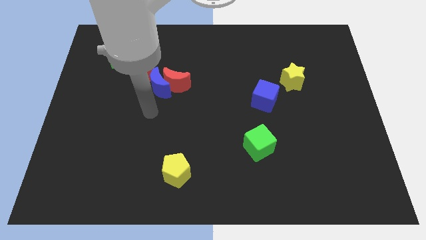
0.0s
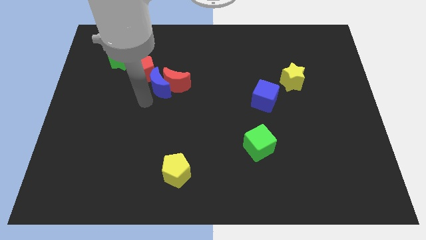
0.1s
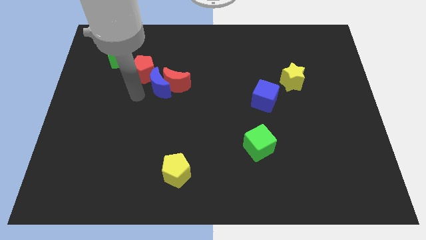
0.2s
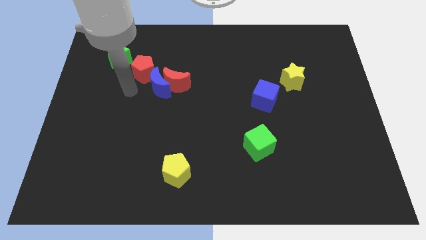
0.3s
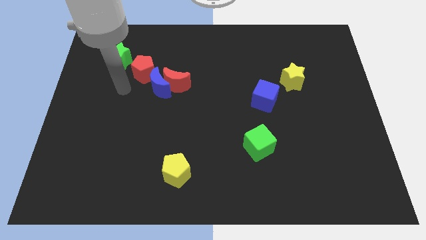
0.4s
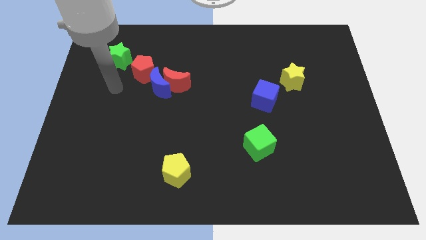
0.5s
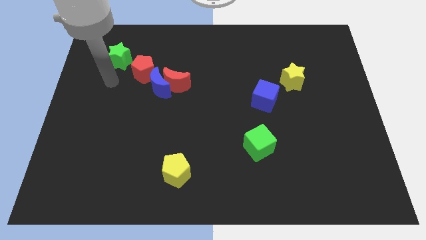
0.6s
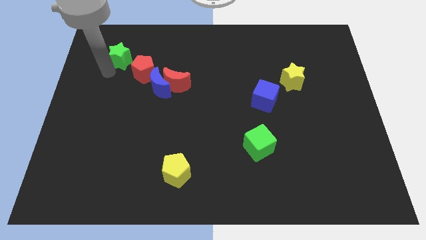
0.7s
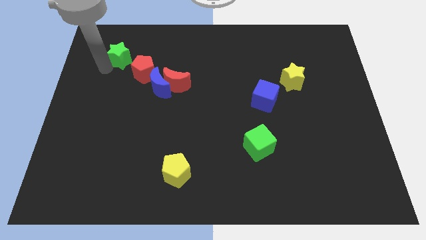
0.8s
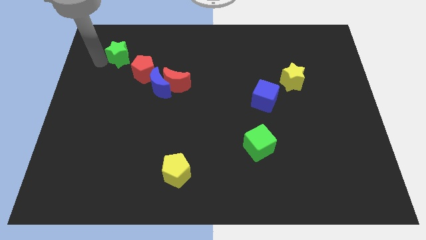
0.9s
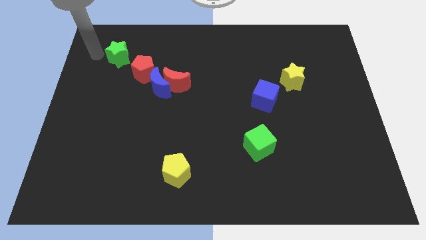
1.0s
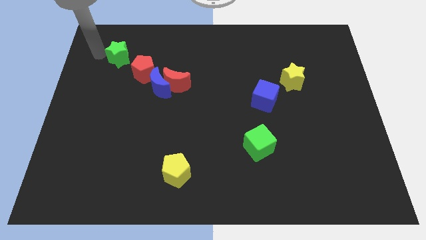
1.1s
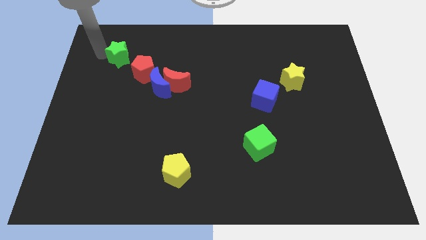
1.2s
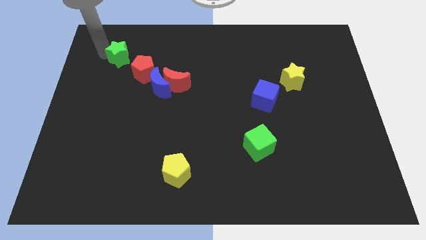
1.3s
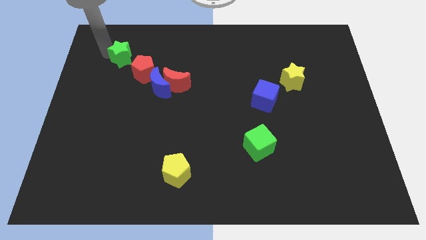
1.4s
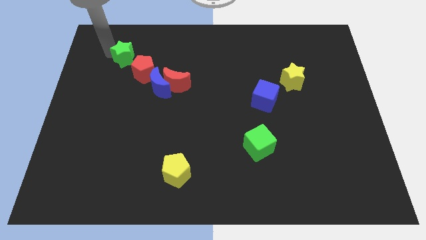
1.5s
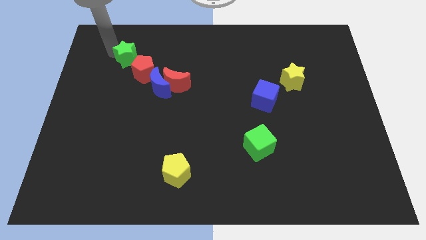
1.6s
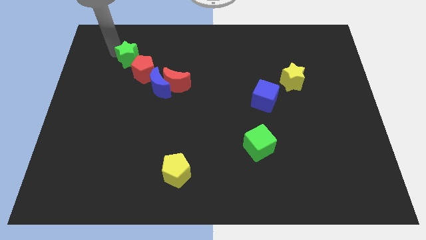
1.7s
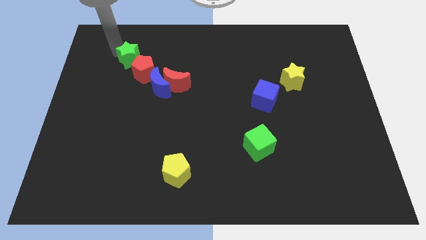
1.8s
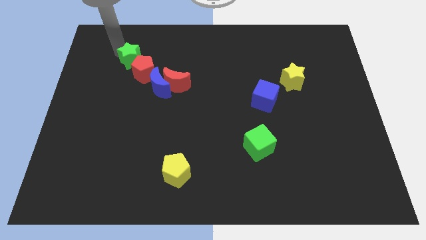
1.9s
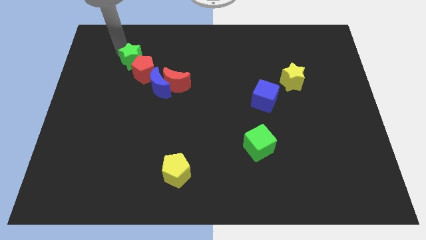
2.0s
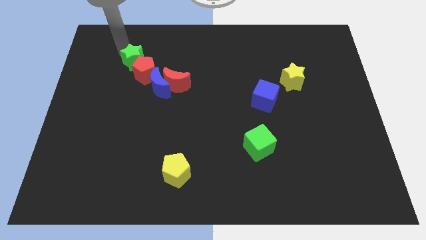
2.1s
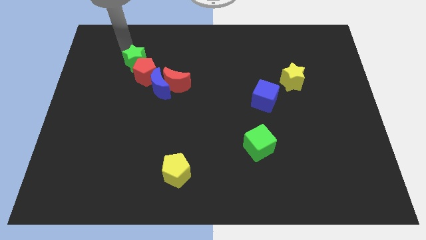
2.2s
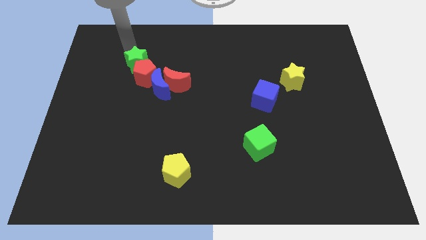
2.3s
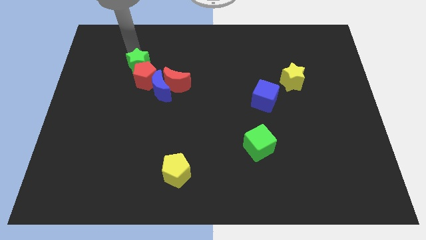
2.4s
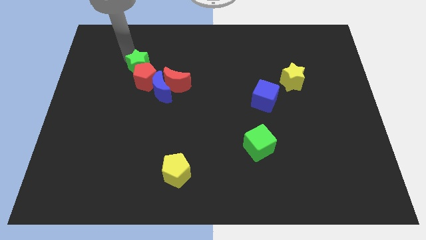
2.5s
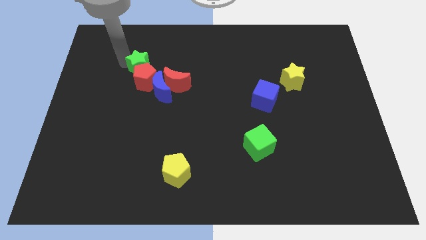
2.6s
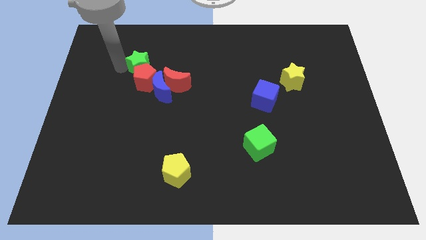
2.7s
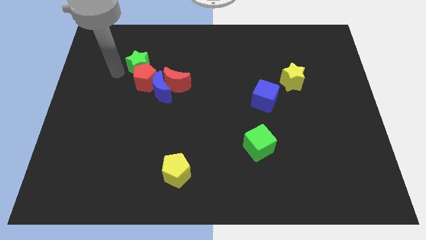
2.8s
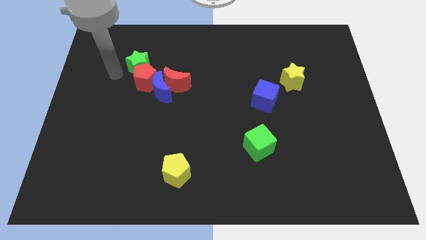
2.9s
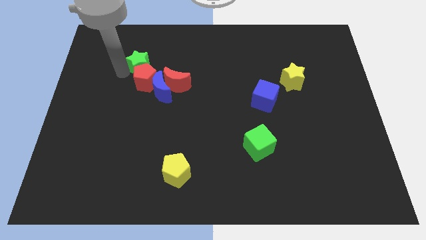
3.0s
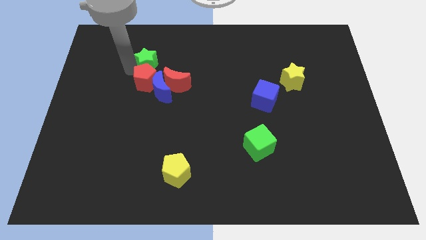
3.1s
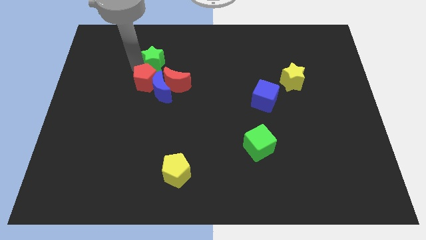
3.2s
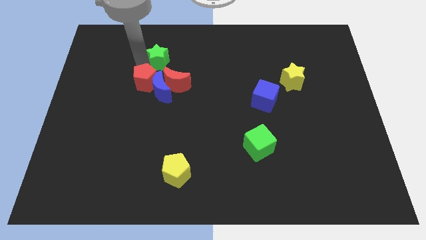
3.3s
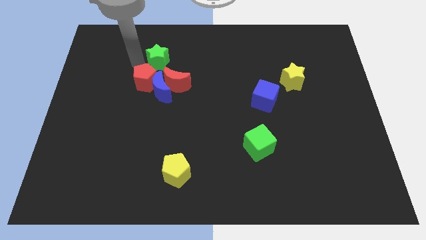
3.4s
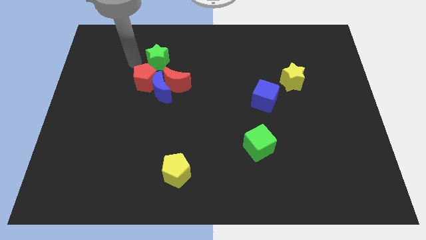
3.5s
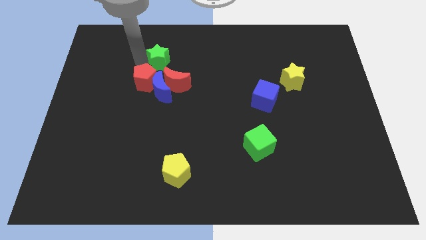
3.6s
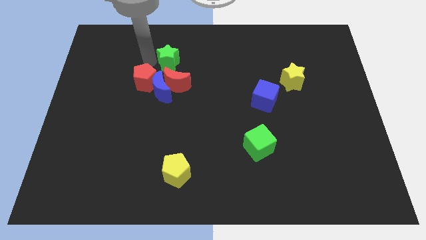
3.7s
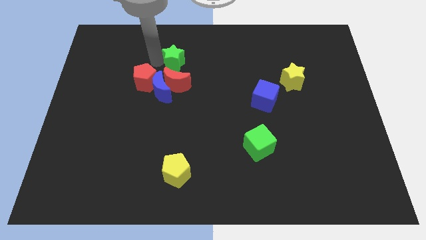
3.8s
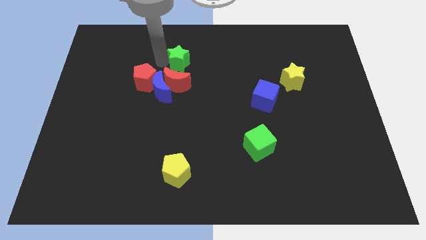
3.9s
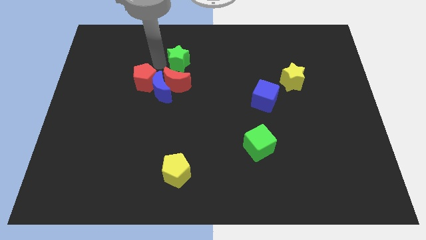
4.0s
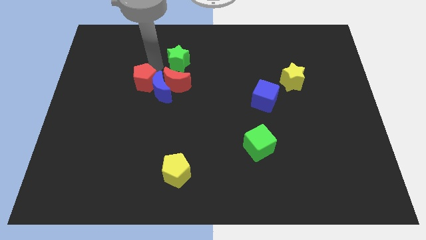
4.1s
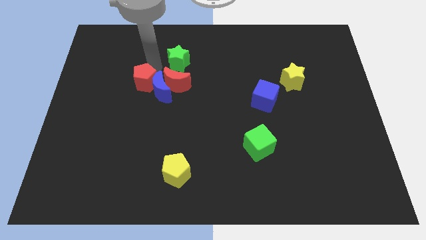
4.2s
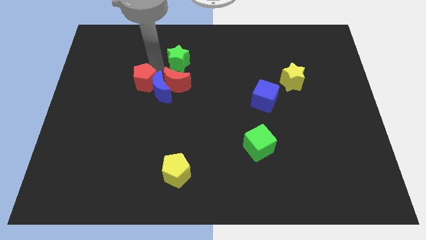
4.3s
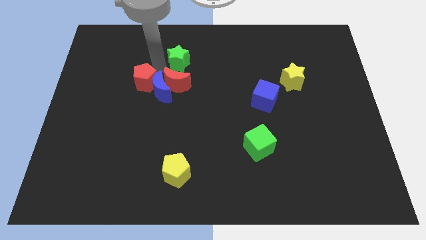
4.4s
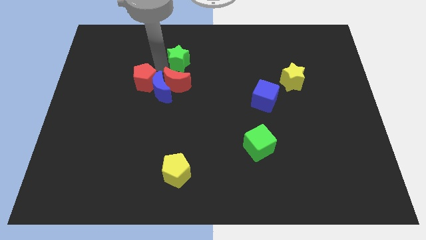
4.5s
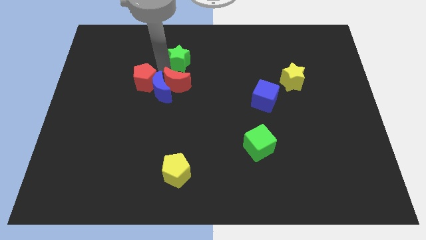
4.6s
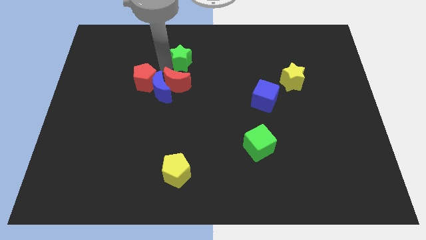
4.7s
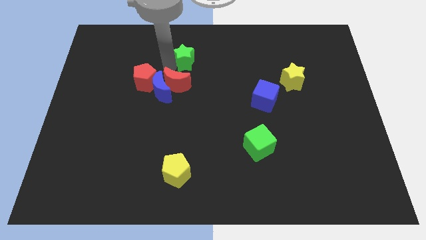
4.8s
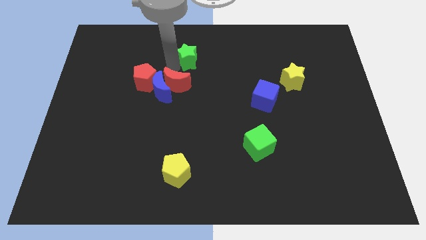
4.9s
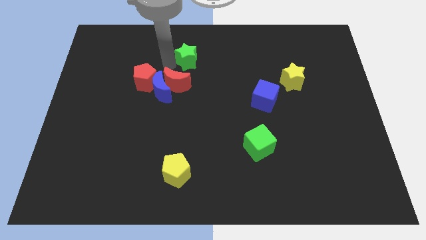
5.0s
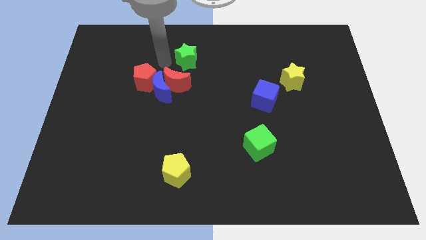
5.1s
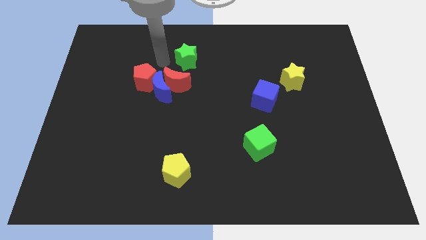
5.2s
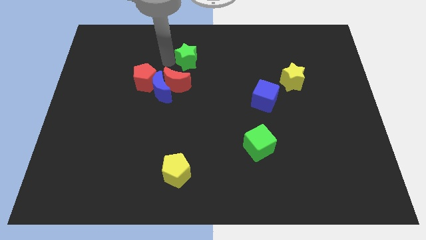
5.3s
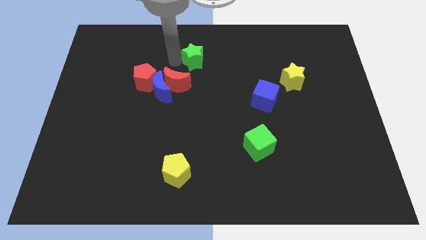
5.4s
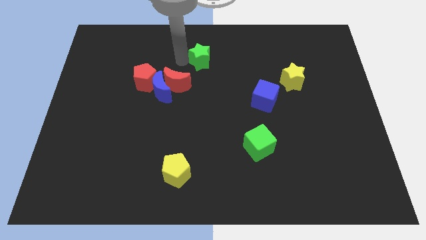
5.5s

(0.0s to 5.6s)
push the green star right

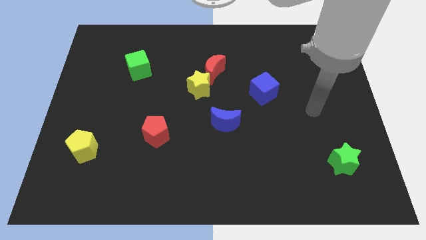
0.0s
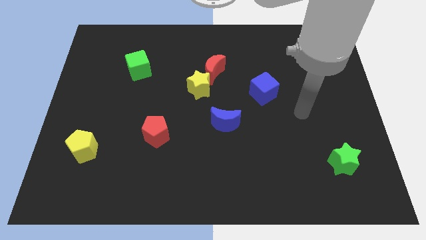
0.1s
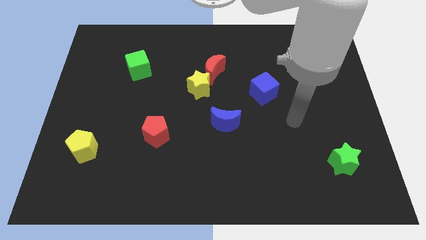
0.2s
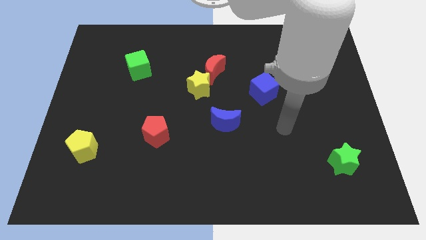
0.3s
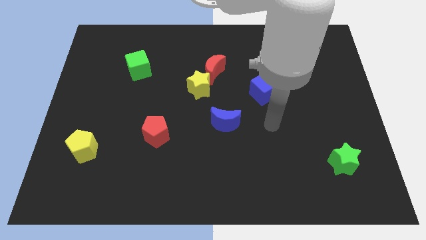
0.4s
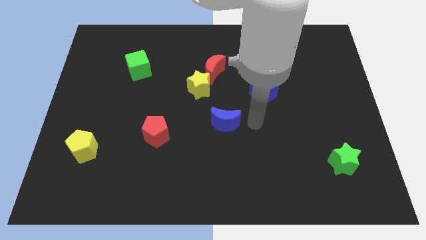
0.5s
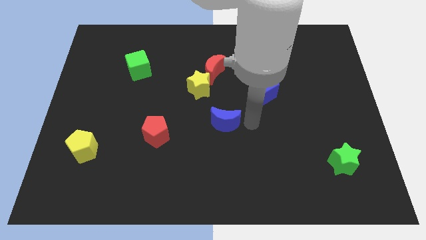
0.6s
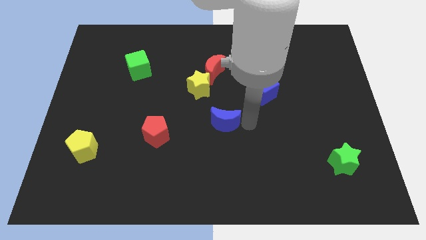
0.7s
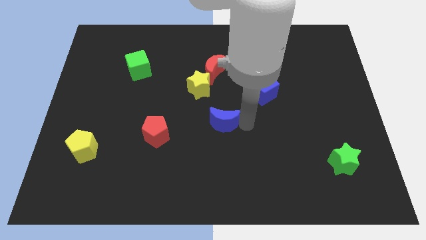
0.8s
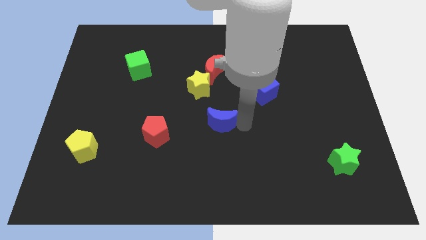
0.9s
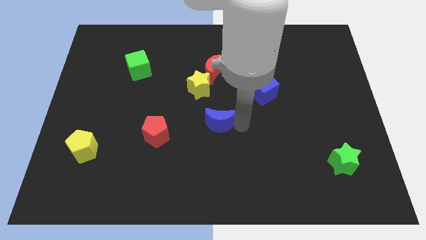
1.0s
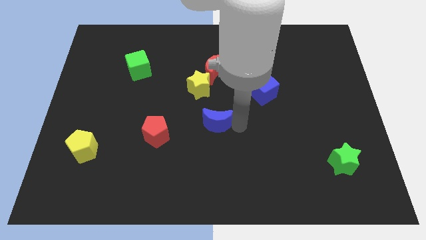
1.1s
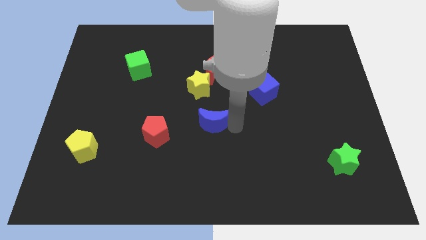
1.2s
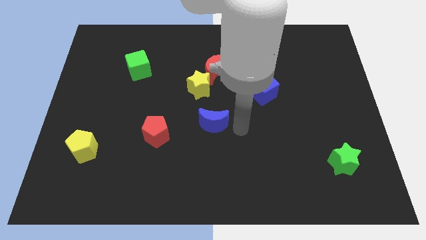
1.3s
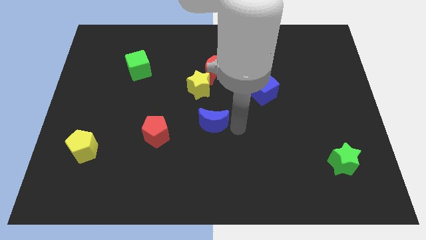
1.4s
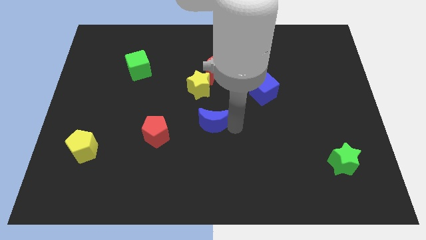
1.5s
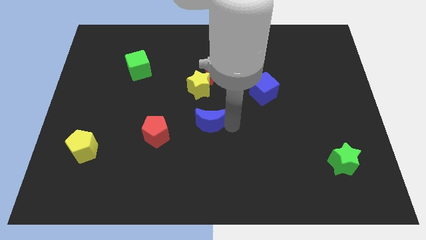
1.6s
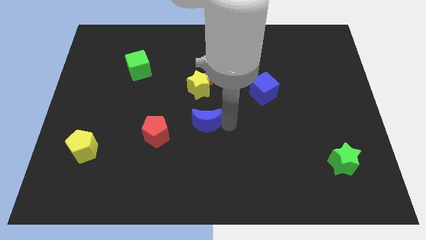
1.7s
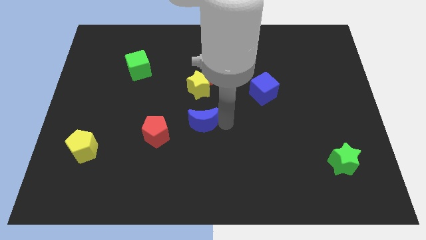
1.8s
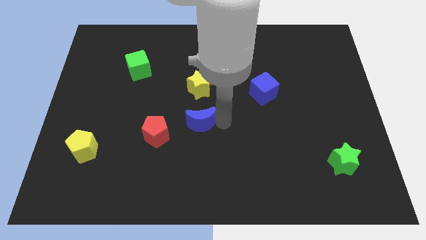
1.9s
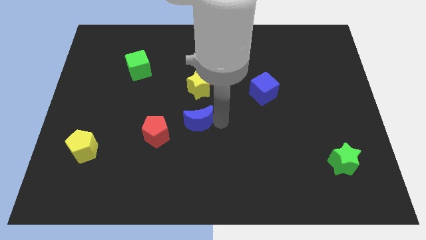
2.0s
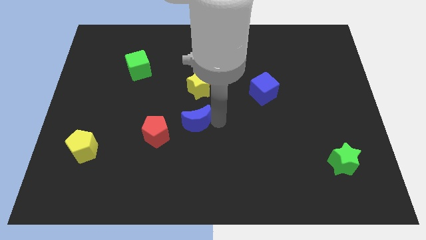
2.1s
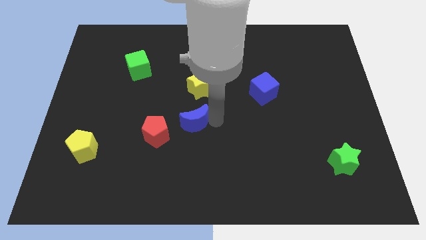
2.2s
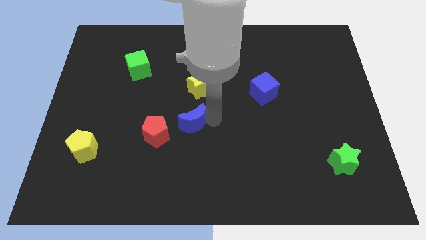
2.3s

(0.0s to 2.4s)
slide the blue moon somewhat to the left

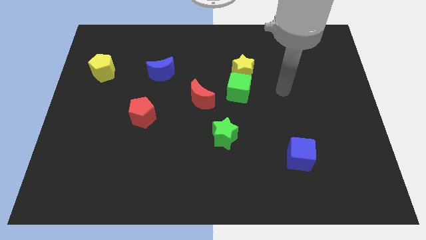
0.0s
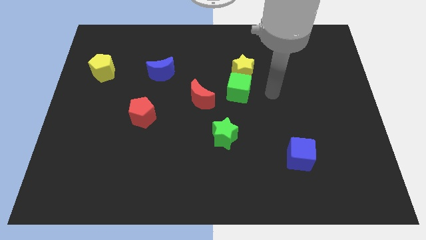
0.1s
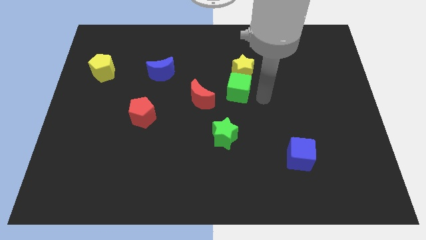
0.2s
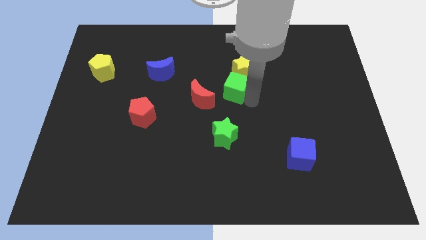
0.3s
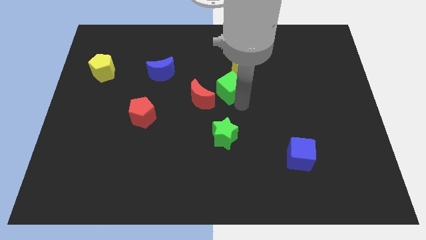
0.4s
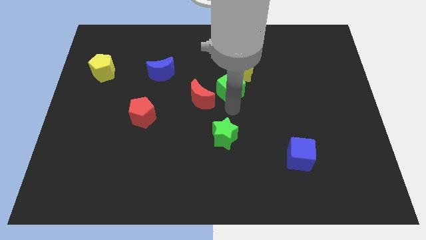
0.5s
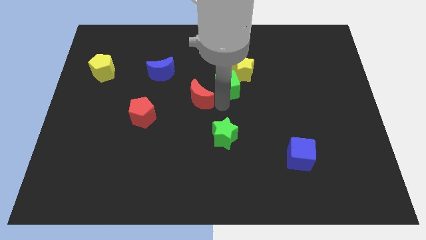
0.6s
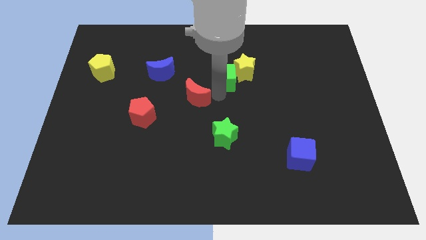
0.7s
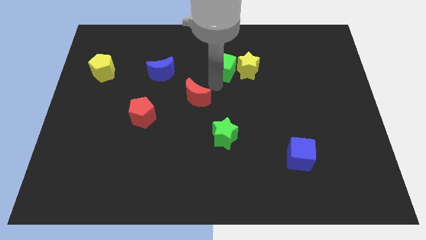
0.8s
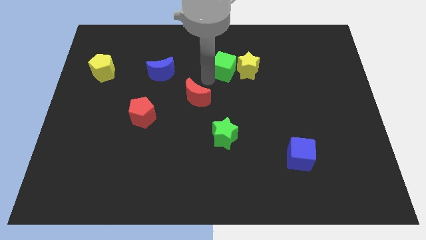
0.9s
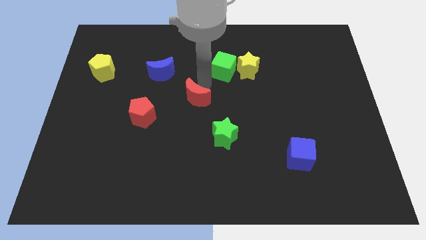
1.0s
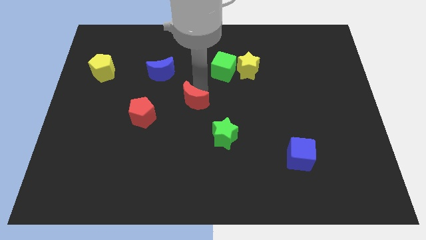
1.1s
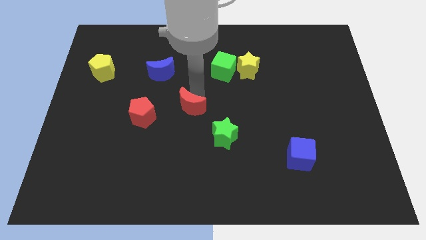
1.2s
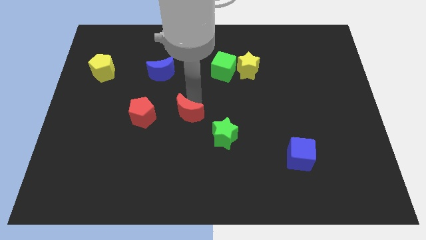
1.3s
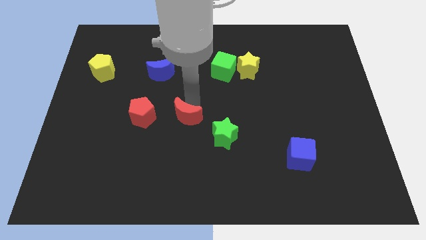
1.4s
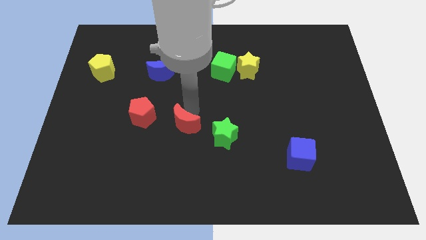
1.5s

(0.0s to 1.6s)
push the red moon down and then to the left somewhat
